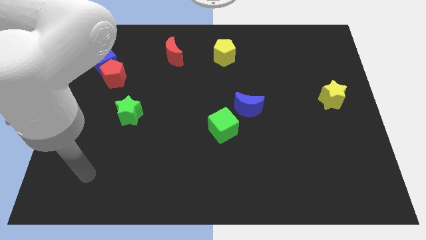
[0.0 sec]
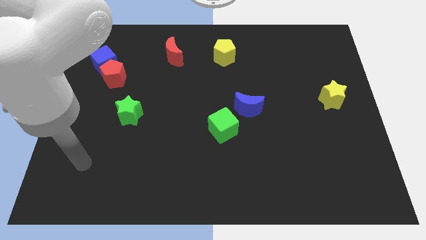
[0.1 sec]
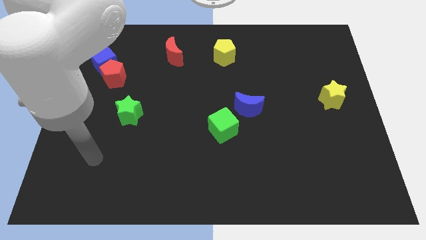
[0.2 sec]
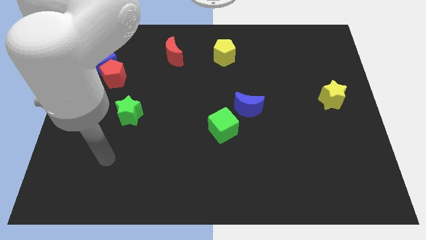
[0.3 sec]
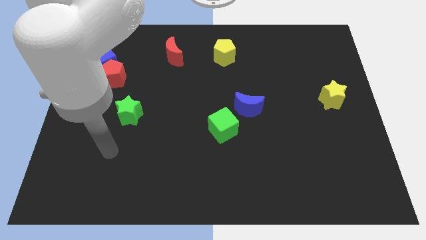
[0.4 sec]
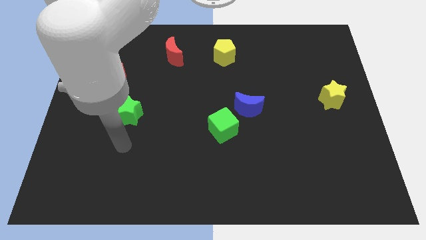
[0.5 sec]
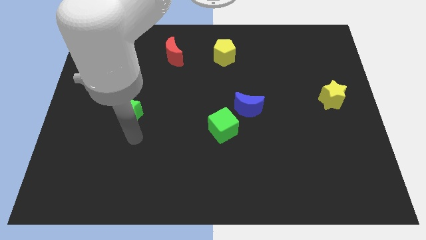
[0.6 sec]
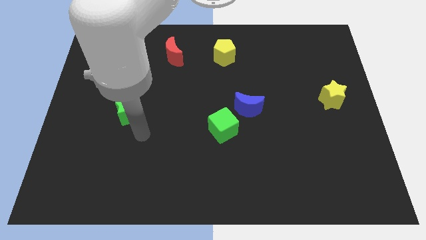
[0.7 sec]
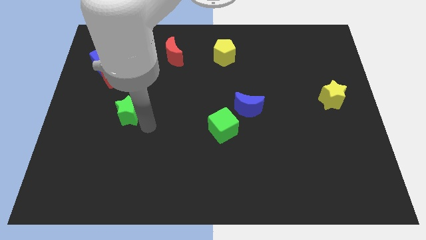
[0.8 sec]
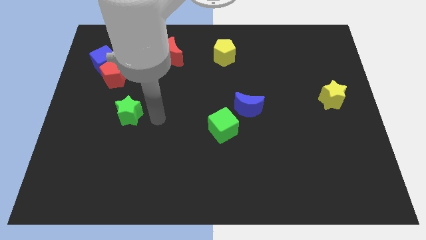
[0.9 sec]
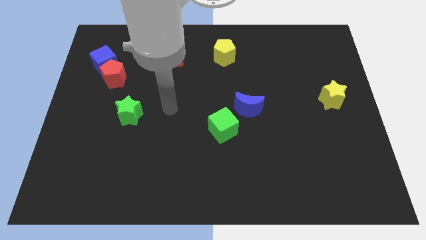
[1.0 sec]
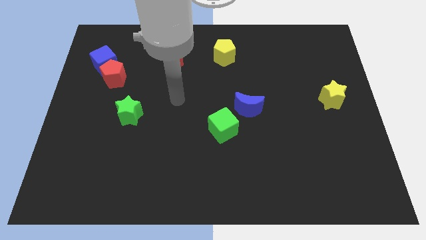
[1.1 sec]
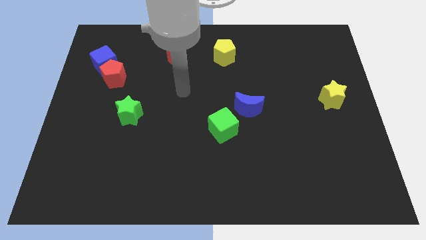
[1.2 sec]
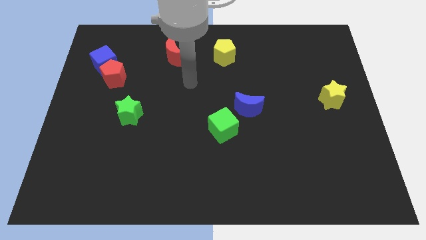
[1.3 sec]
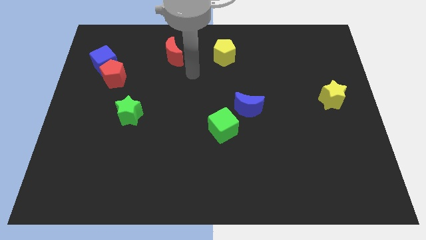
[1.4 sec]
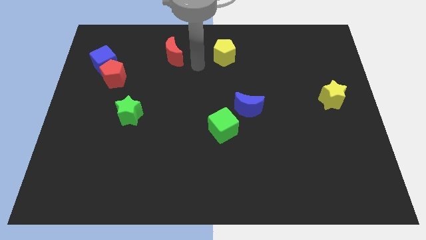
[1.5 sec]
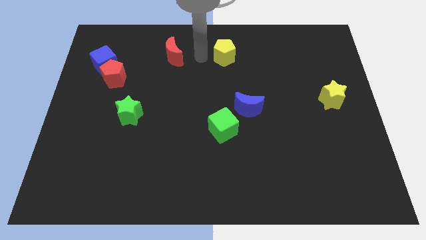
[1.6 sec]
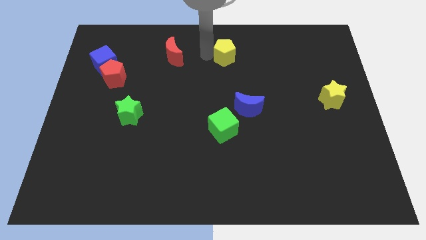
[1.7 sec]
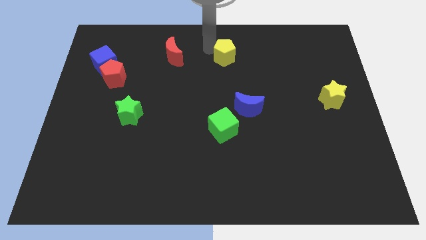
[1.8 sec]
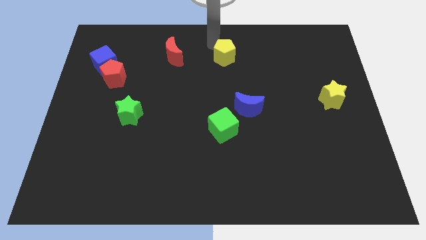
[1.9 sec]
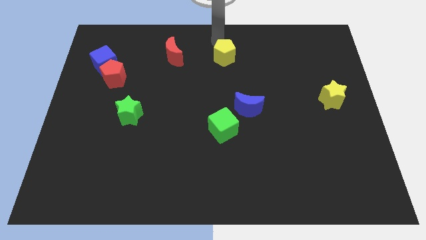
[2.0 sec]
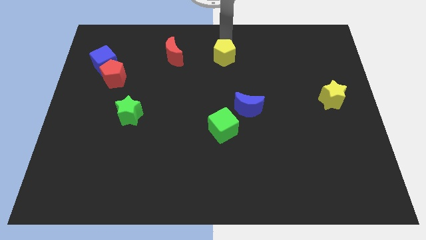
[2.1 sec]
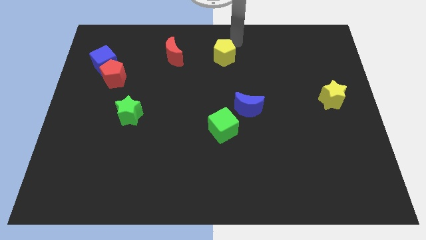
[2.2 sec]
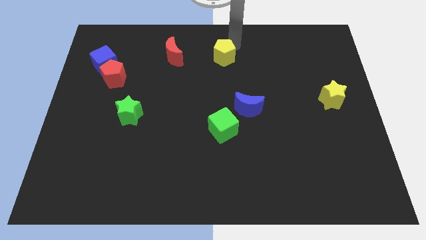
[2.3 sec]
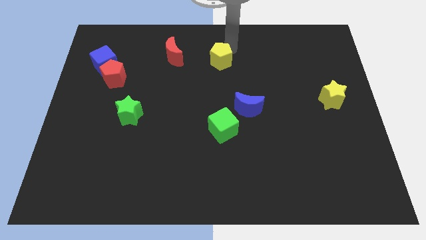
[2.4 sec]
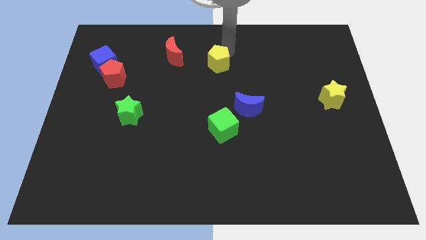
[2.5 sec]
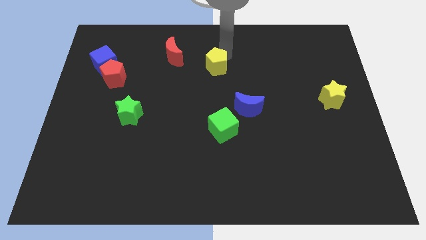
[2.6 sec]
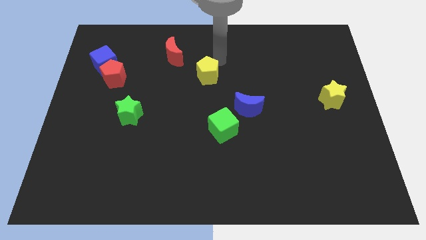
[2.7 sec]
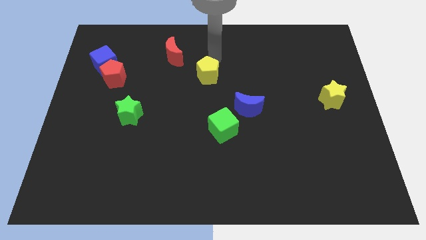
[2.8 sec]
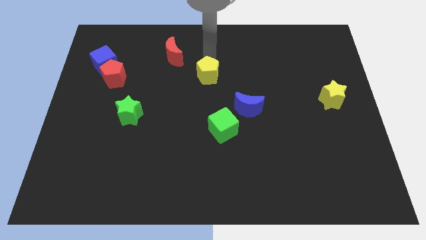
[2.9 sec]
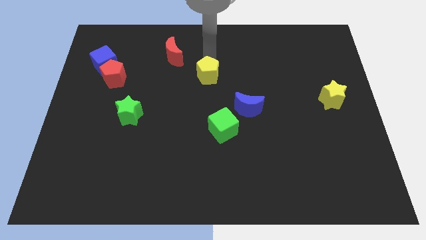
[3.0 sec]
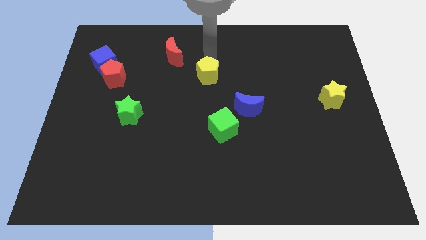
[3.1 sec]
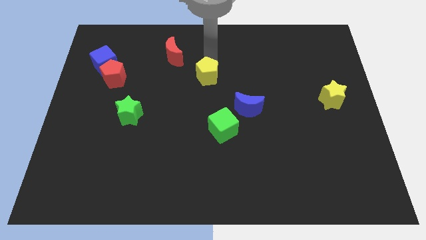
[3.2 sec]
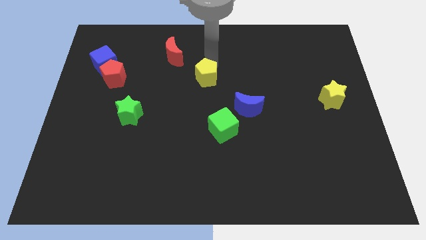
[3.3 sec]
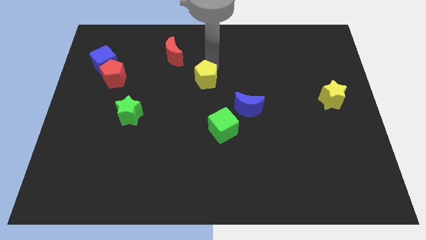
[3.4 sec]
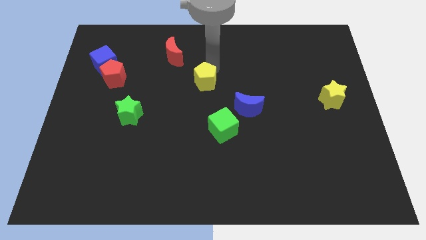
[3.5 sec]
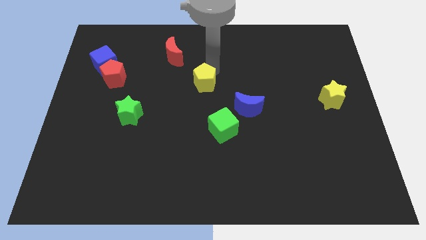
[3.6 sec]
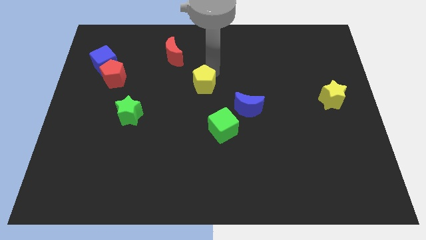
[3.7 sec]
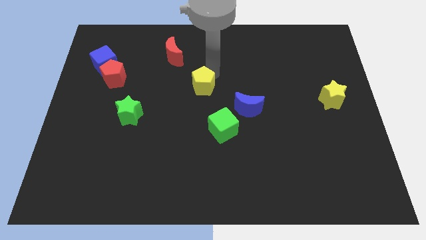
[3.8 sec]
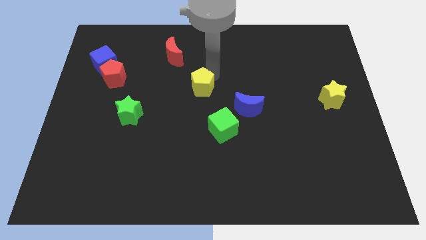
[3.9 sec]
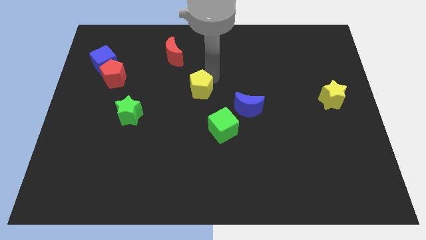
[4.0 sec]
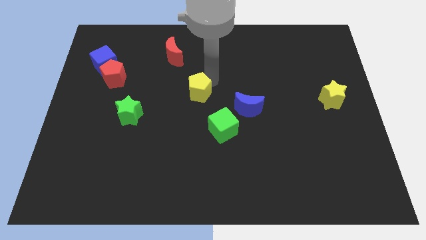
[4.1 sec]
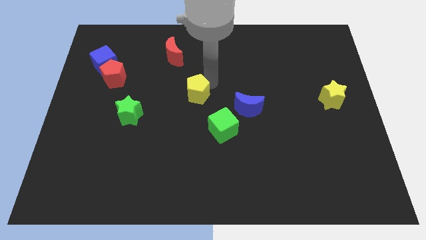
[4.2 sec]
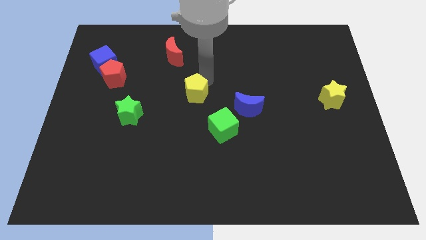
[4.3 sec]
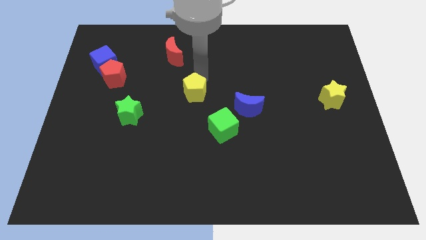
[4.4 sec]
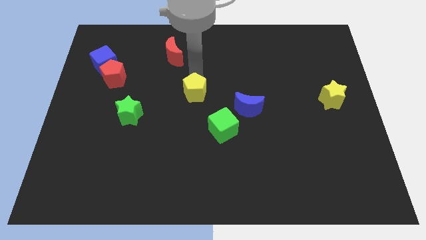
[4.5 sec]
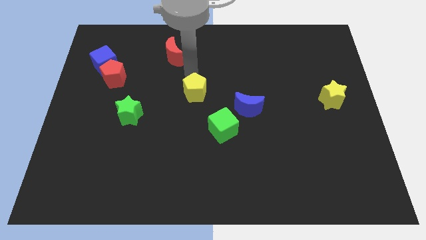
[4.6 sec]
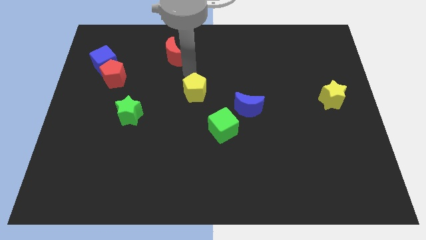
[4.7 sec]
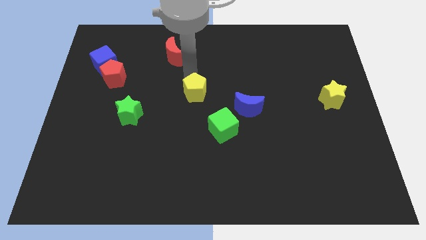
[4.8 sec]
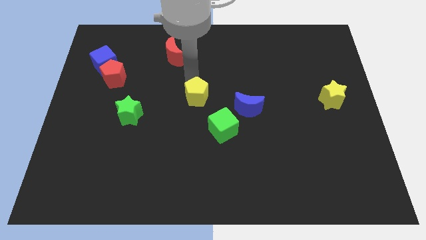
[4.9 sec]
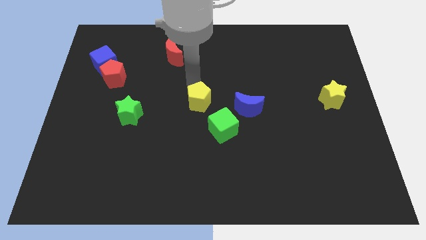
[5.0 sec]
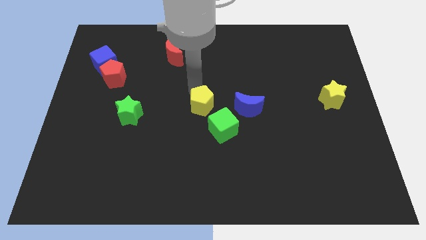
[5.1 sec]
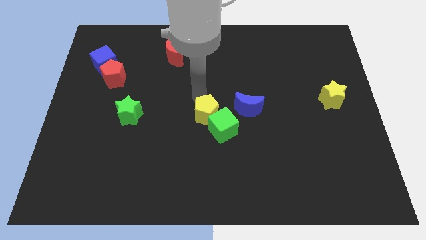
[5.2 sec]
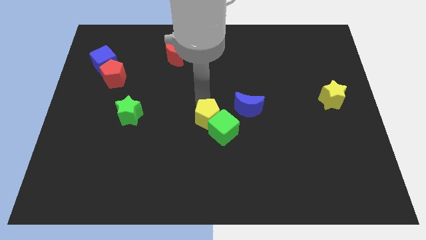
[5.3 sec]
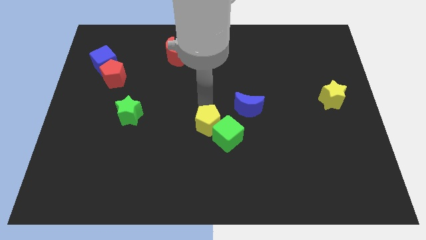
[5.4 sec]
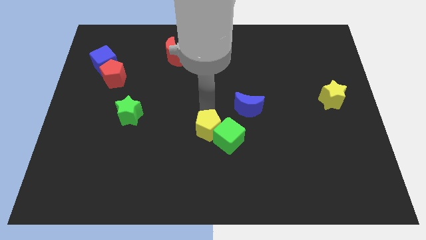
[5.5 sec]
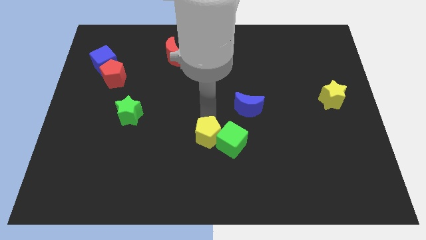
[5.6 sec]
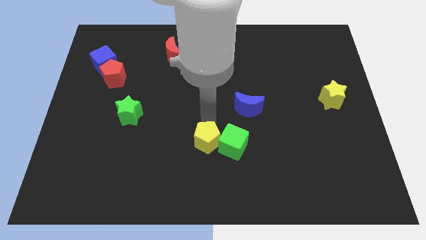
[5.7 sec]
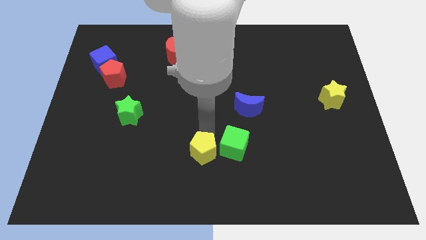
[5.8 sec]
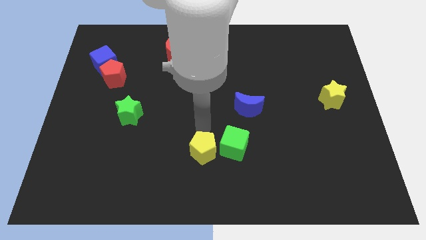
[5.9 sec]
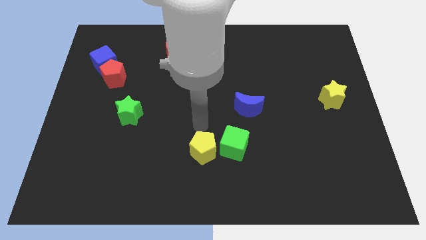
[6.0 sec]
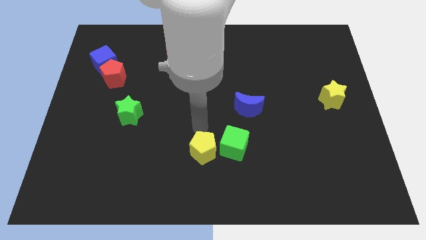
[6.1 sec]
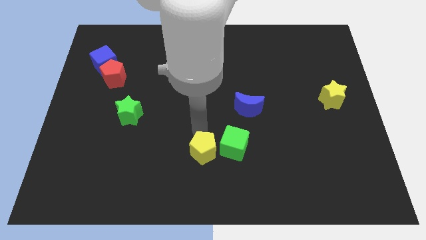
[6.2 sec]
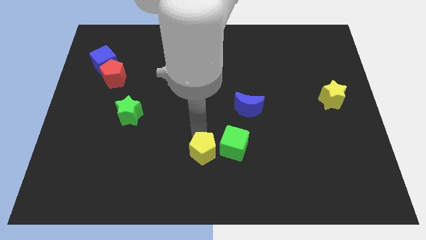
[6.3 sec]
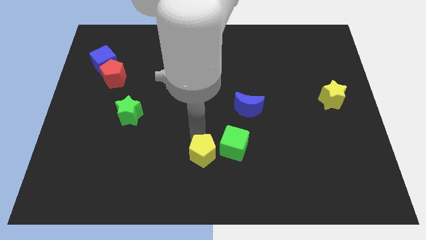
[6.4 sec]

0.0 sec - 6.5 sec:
slide the yellow pentagon to the bottom side

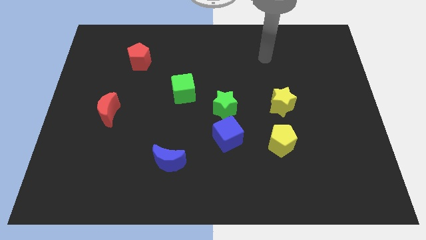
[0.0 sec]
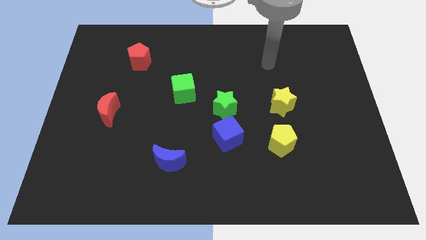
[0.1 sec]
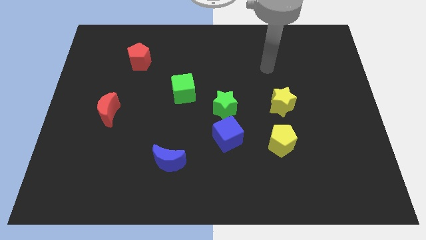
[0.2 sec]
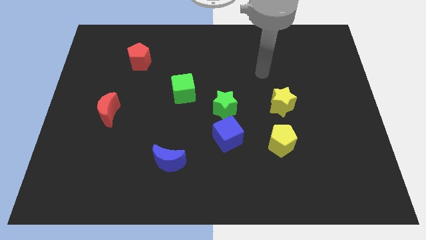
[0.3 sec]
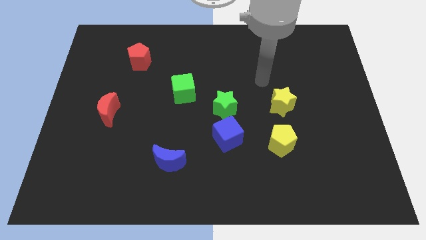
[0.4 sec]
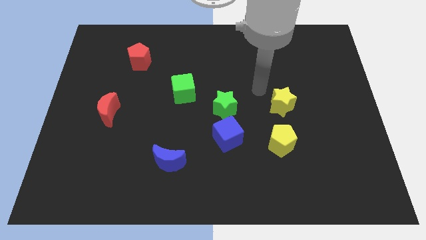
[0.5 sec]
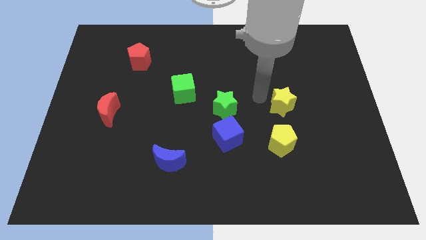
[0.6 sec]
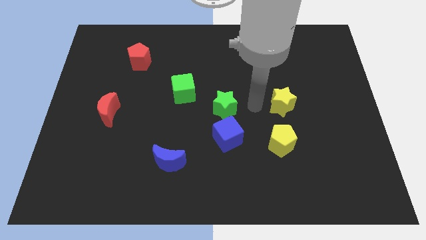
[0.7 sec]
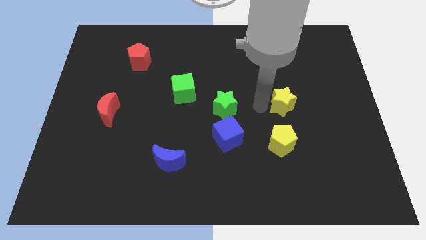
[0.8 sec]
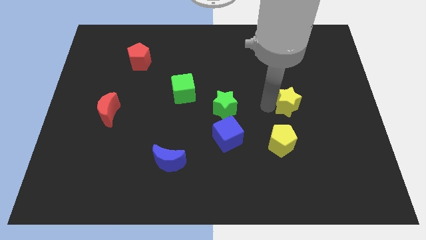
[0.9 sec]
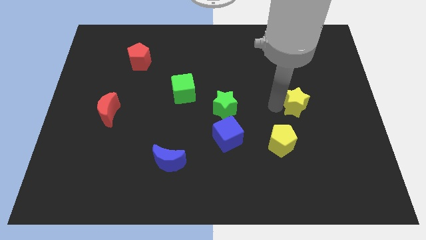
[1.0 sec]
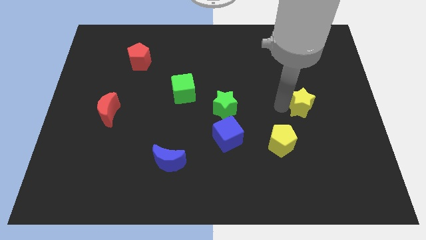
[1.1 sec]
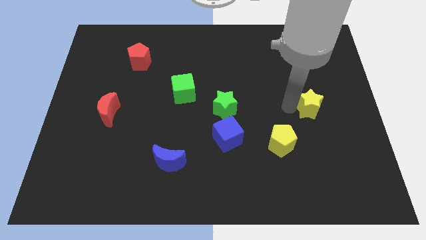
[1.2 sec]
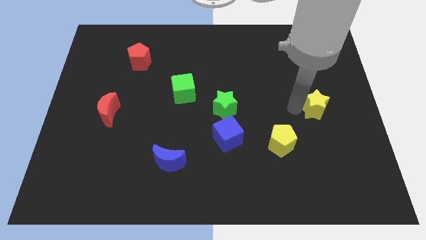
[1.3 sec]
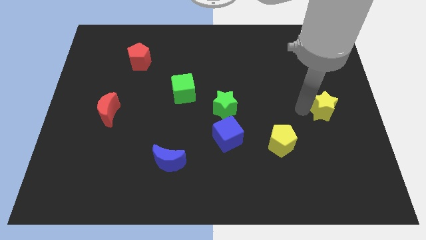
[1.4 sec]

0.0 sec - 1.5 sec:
move the yellow star to the center right
